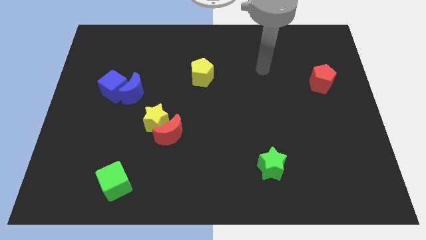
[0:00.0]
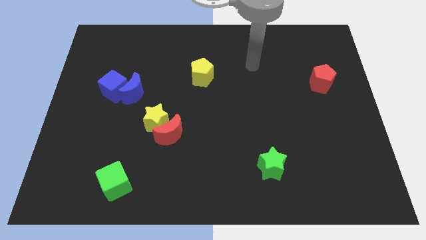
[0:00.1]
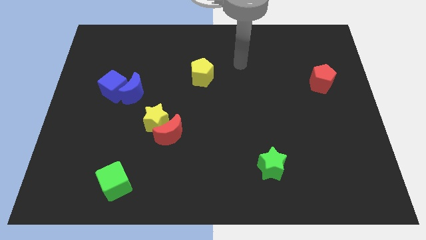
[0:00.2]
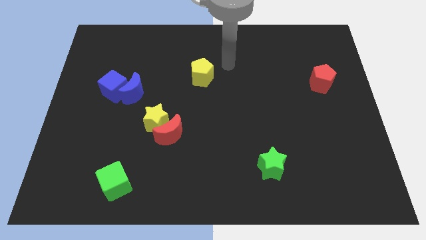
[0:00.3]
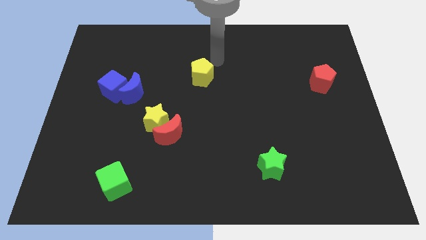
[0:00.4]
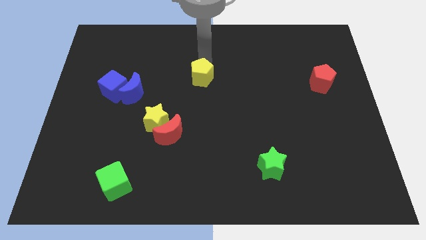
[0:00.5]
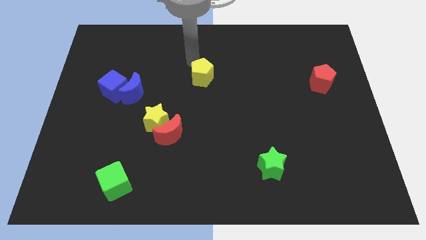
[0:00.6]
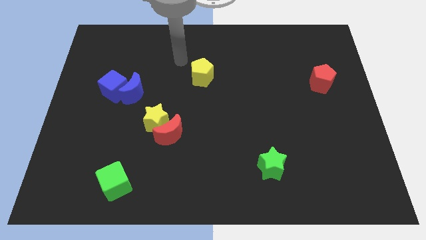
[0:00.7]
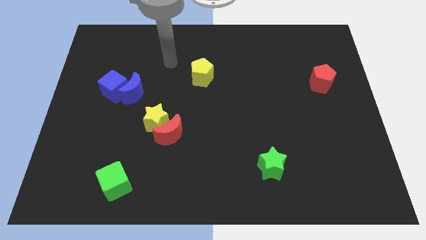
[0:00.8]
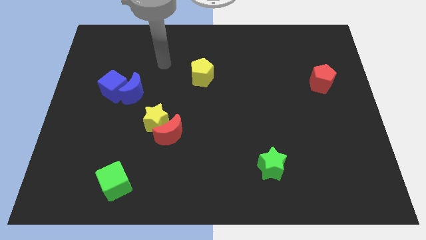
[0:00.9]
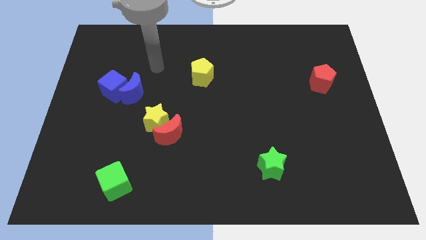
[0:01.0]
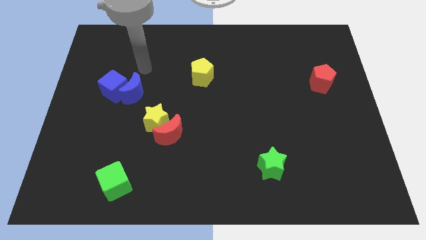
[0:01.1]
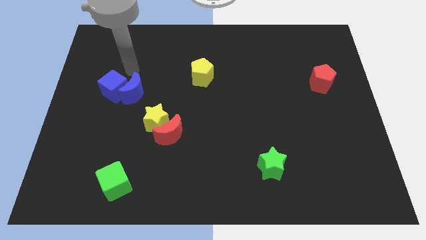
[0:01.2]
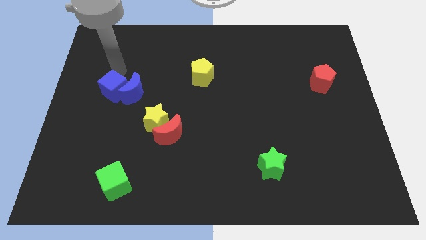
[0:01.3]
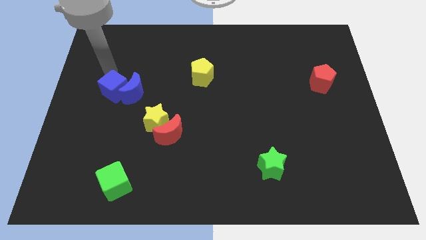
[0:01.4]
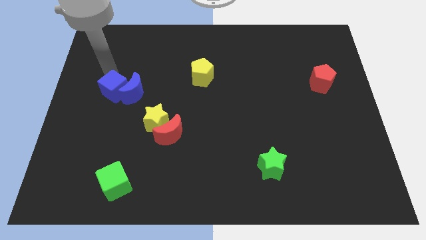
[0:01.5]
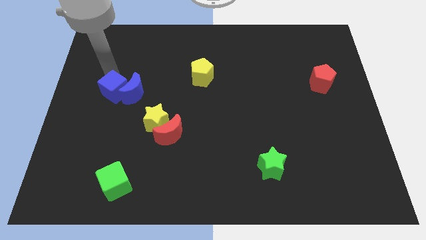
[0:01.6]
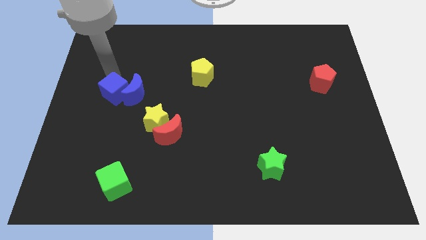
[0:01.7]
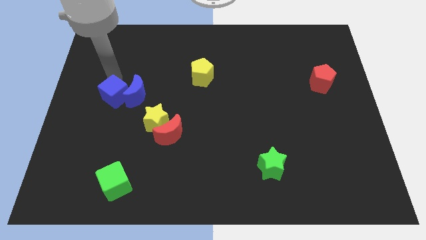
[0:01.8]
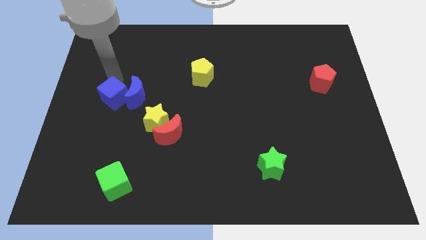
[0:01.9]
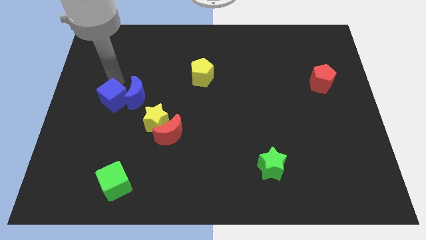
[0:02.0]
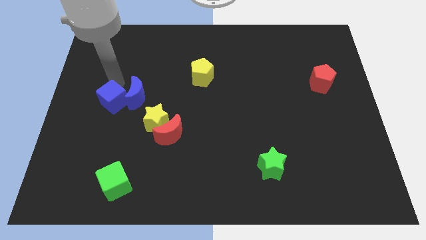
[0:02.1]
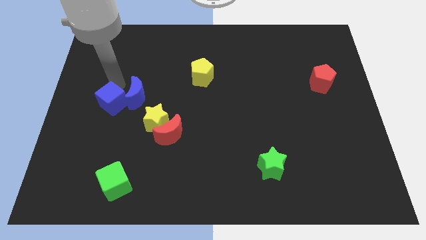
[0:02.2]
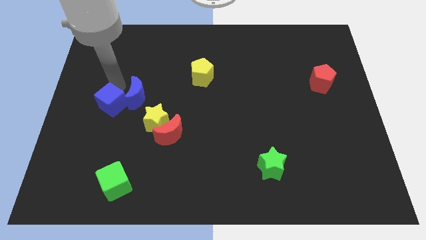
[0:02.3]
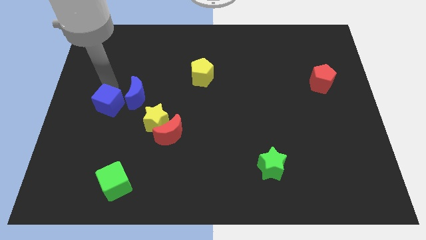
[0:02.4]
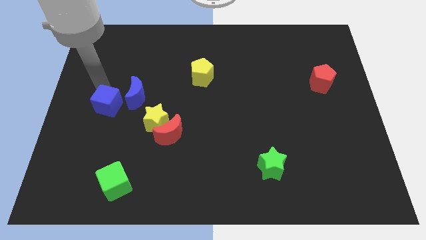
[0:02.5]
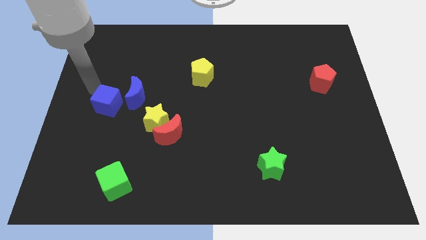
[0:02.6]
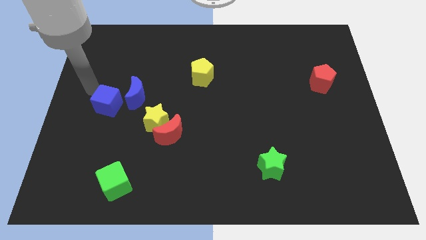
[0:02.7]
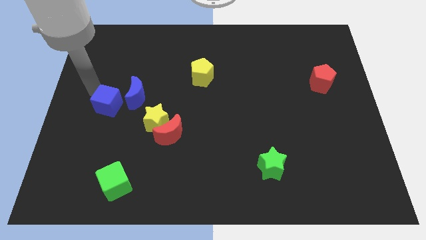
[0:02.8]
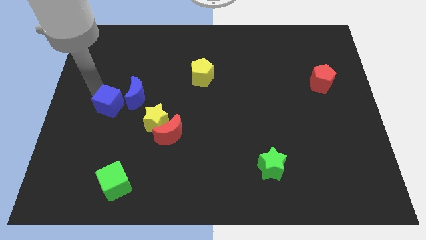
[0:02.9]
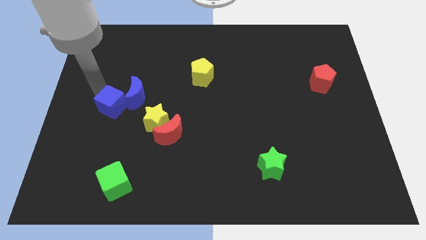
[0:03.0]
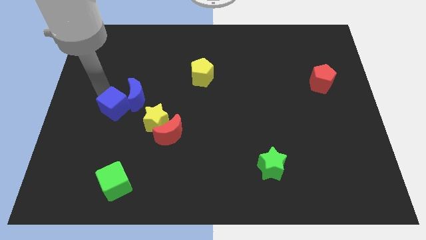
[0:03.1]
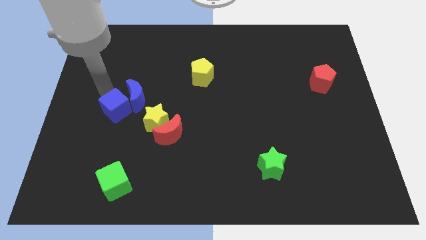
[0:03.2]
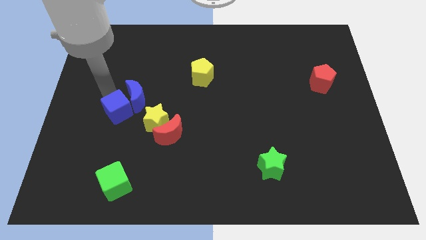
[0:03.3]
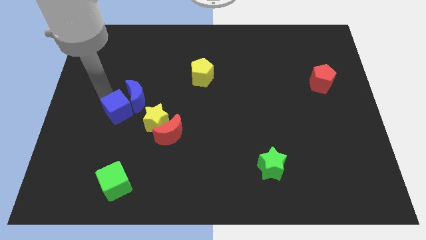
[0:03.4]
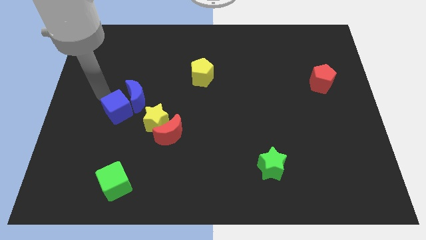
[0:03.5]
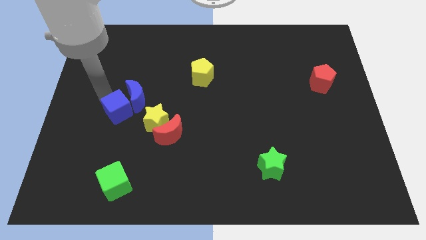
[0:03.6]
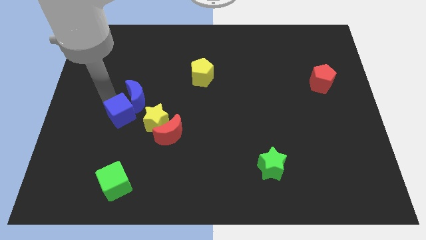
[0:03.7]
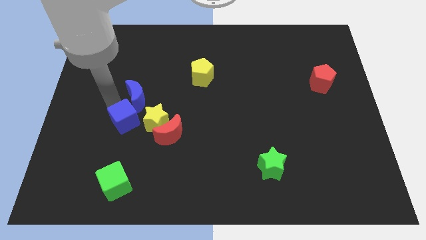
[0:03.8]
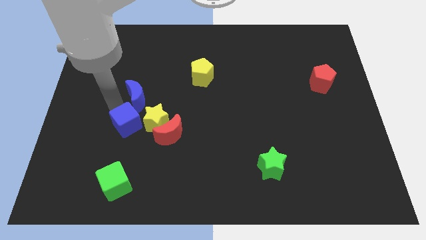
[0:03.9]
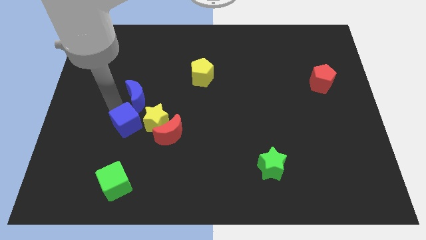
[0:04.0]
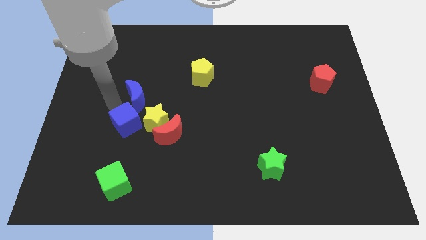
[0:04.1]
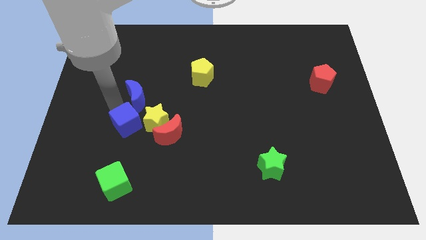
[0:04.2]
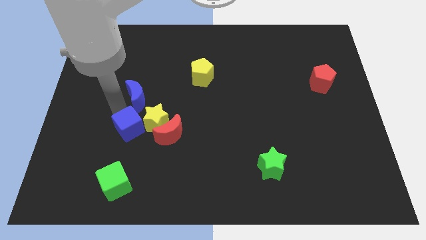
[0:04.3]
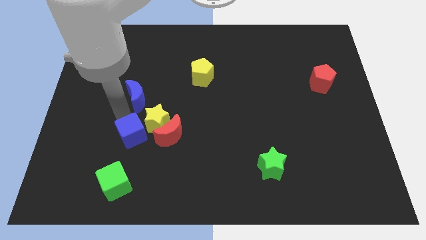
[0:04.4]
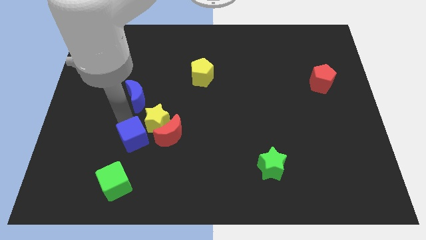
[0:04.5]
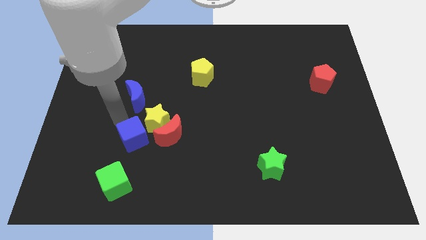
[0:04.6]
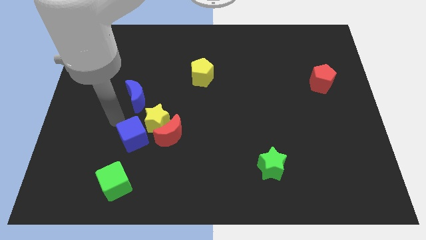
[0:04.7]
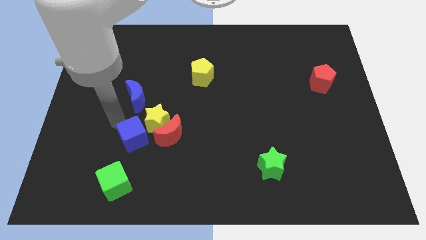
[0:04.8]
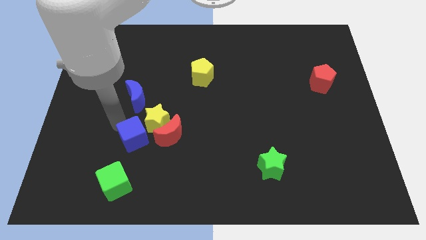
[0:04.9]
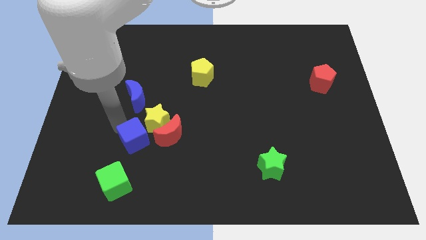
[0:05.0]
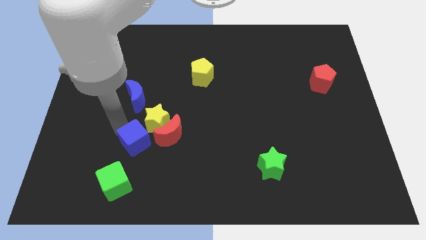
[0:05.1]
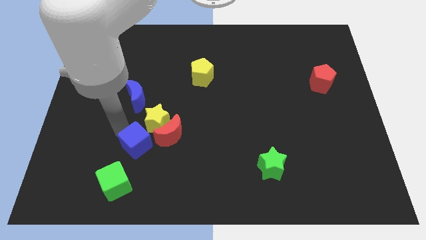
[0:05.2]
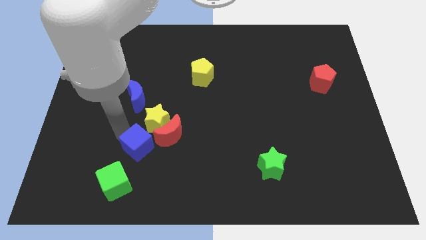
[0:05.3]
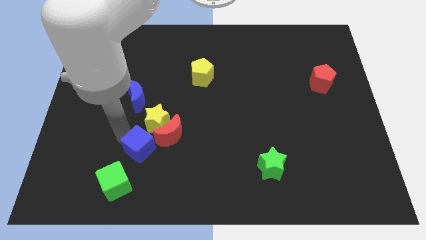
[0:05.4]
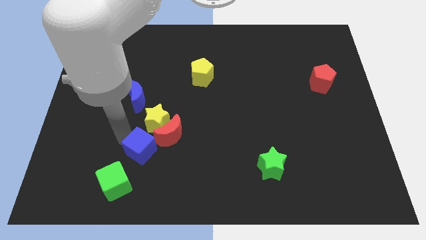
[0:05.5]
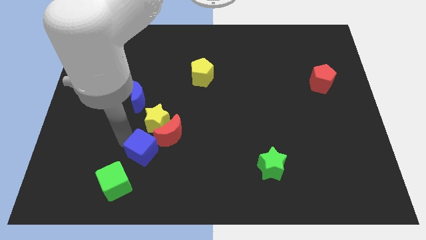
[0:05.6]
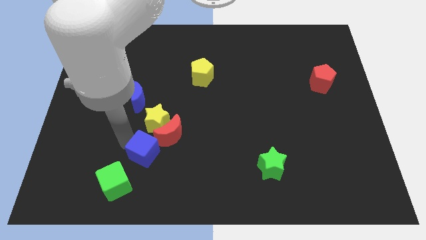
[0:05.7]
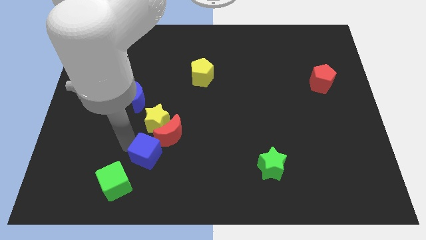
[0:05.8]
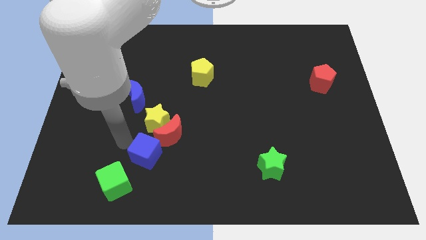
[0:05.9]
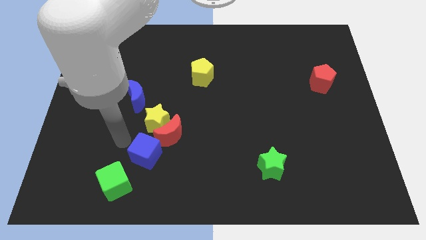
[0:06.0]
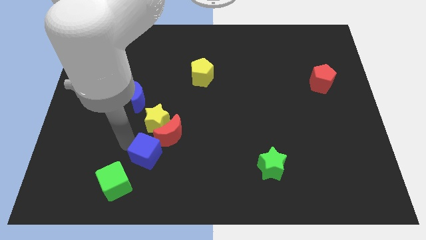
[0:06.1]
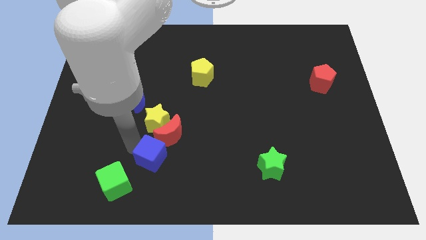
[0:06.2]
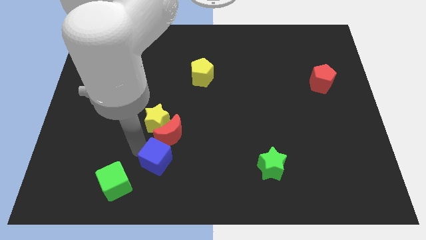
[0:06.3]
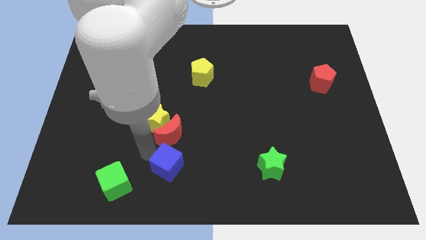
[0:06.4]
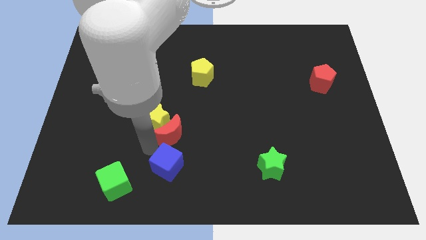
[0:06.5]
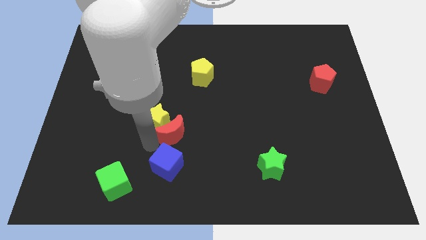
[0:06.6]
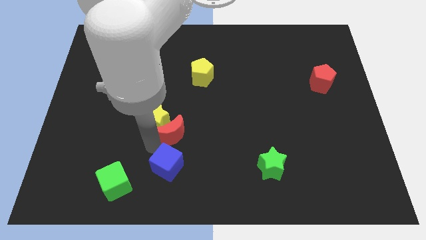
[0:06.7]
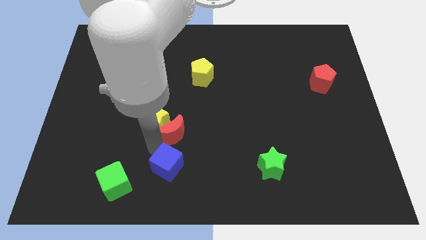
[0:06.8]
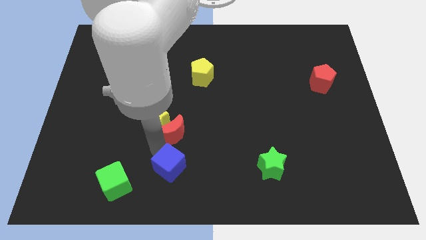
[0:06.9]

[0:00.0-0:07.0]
push the blue cube to the bottom
